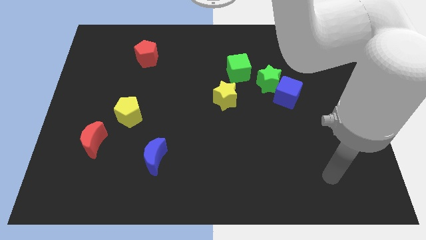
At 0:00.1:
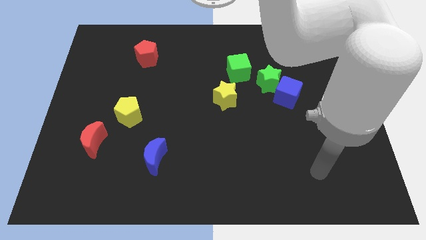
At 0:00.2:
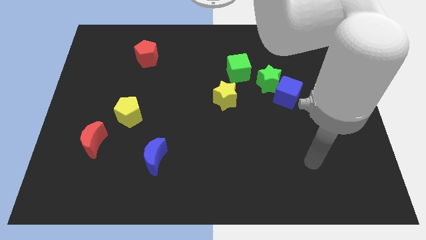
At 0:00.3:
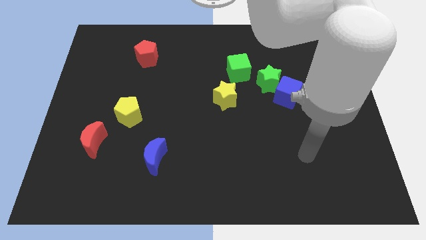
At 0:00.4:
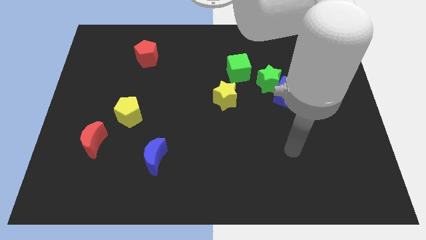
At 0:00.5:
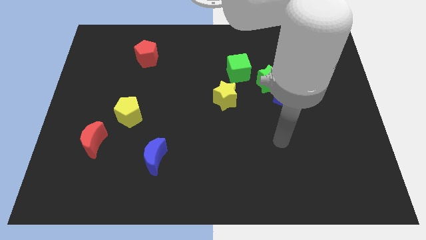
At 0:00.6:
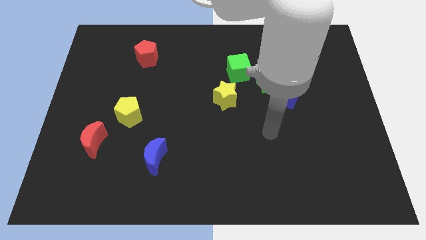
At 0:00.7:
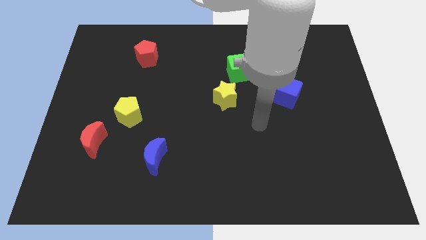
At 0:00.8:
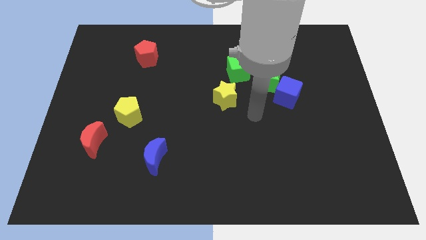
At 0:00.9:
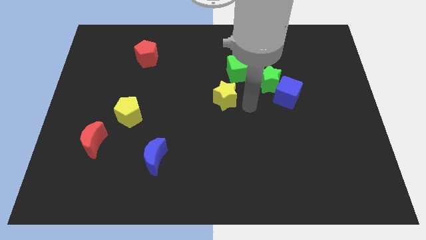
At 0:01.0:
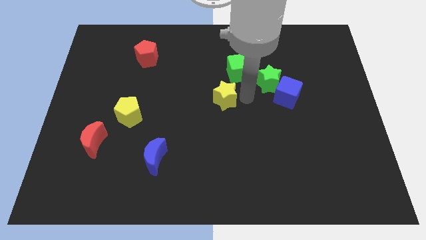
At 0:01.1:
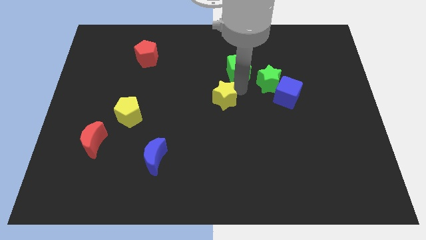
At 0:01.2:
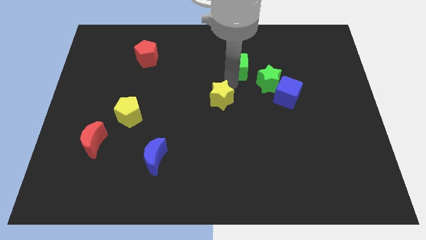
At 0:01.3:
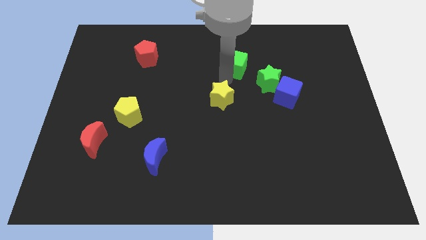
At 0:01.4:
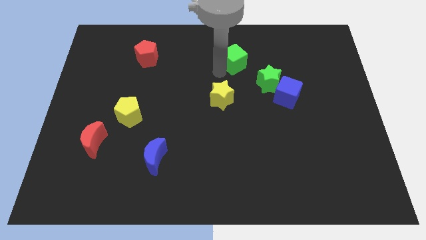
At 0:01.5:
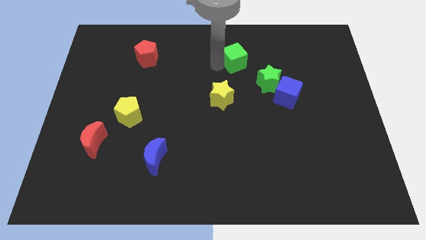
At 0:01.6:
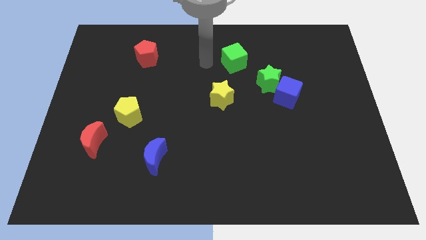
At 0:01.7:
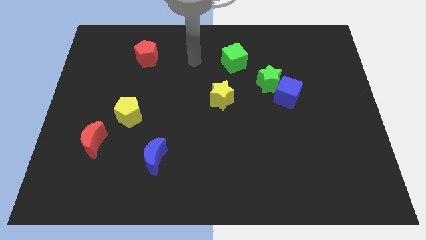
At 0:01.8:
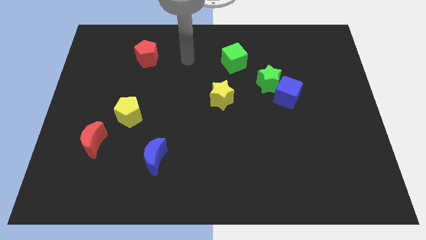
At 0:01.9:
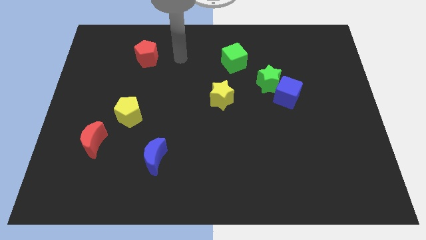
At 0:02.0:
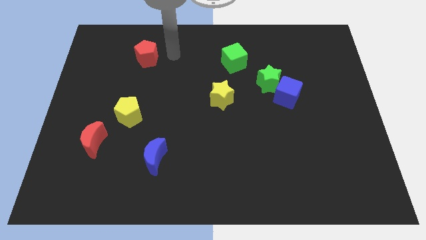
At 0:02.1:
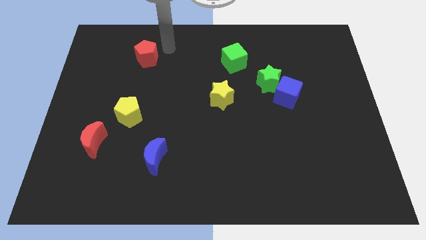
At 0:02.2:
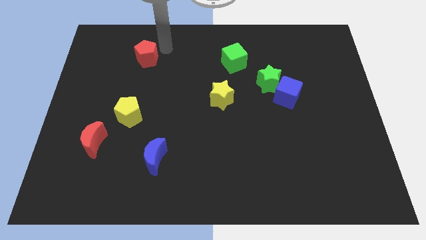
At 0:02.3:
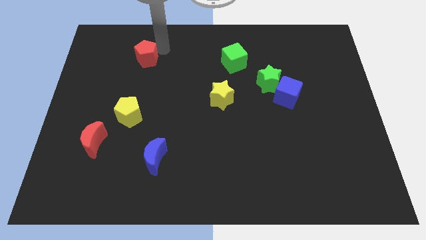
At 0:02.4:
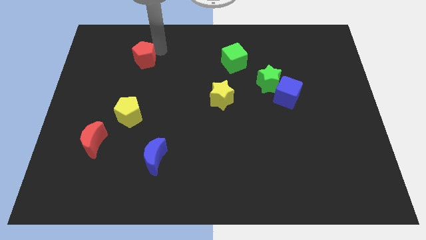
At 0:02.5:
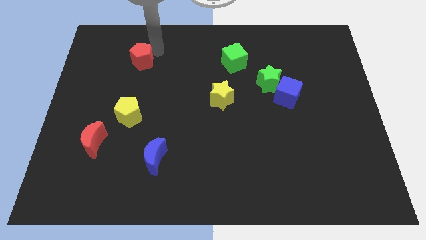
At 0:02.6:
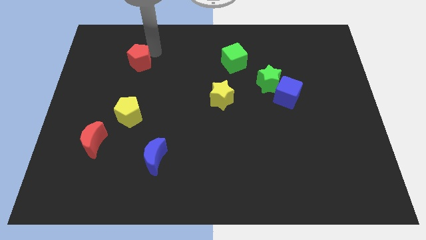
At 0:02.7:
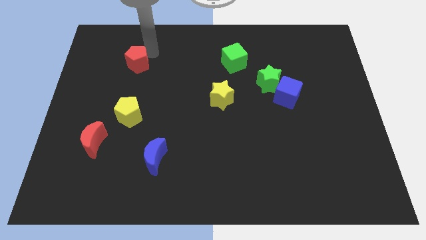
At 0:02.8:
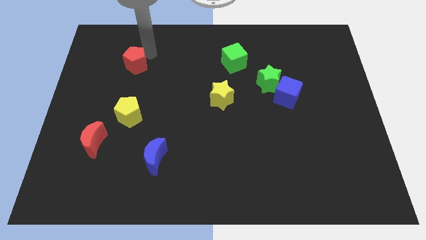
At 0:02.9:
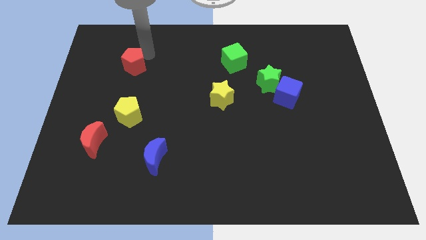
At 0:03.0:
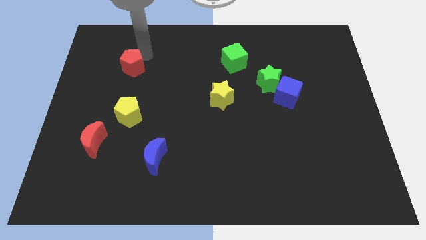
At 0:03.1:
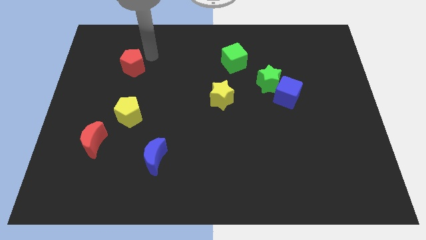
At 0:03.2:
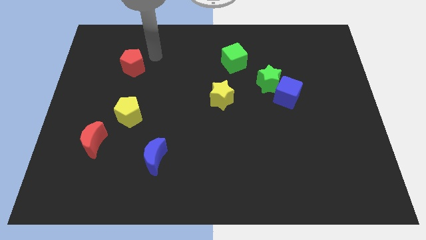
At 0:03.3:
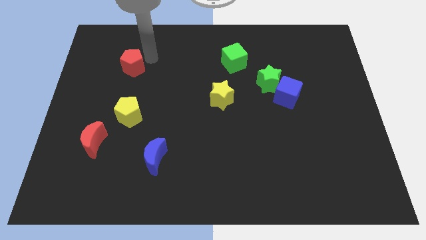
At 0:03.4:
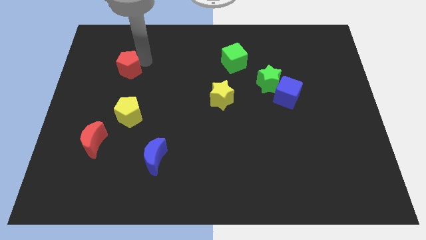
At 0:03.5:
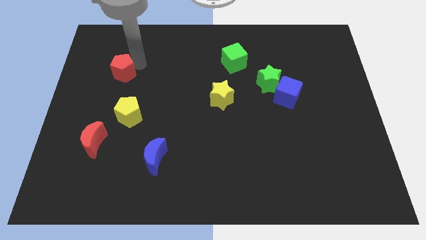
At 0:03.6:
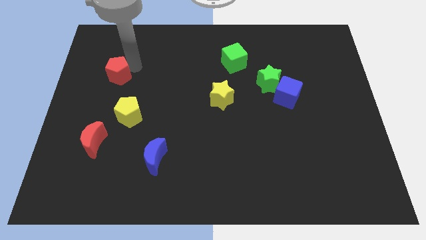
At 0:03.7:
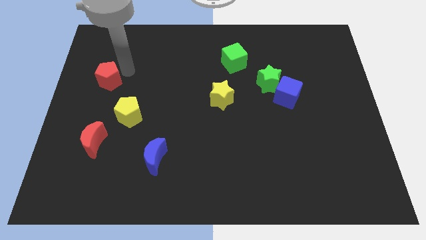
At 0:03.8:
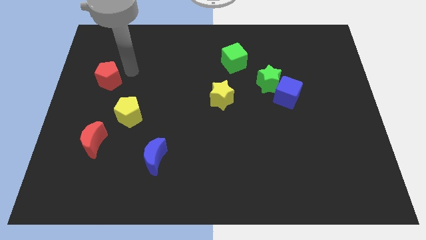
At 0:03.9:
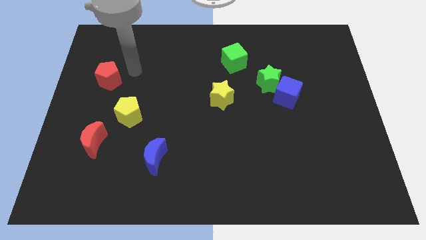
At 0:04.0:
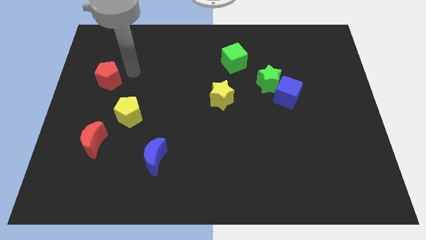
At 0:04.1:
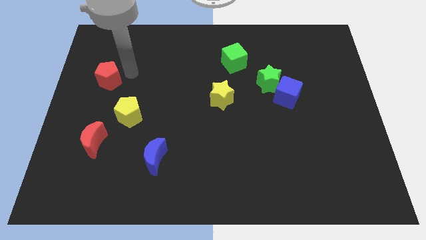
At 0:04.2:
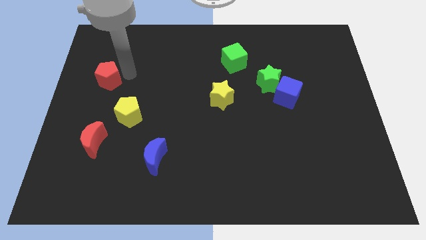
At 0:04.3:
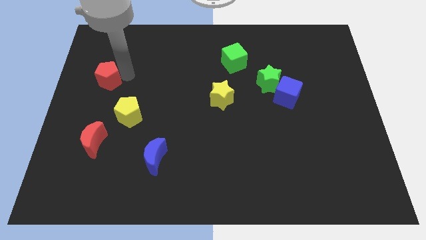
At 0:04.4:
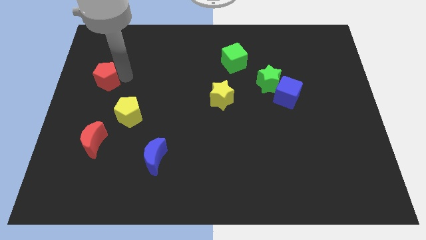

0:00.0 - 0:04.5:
put the red pentagon to the left side

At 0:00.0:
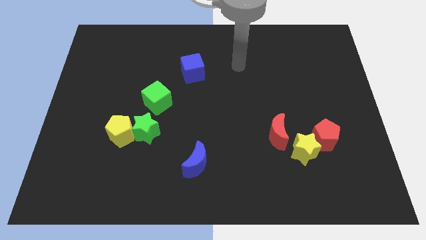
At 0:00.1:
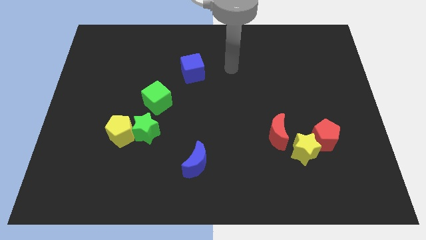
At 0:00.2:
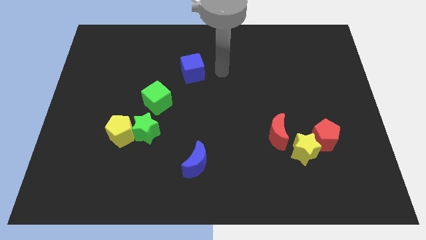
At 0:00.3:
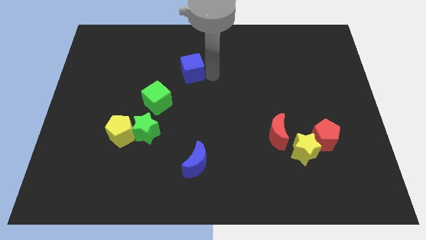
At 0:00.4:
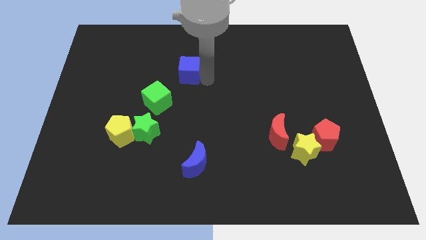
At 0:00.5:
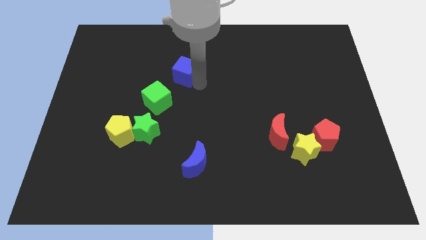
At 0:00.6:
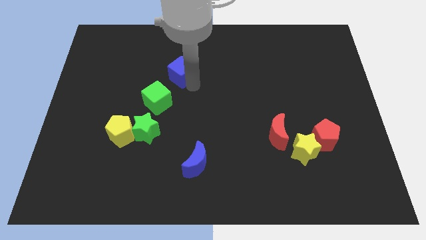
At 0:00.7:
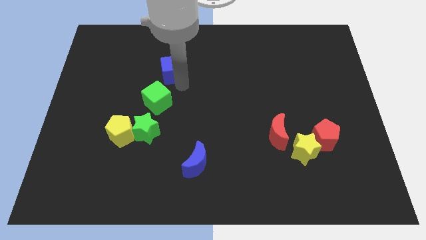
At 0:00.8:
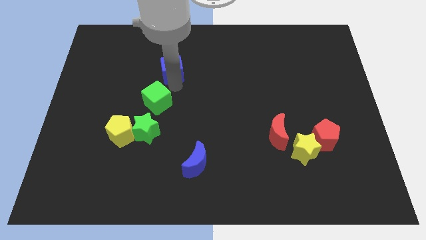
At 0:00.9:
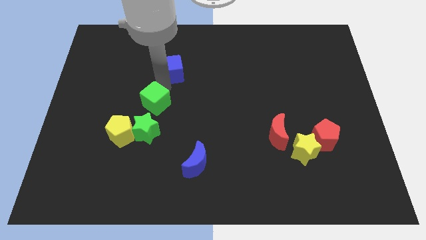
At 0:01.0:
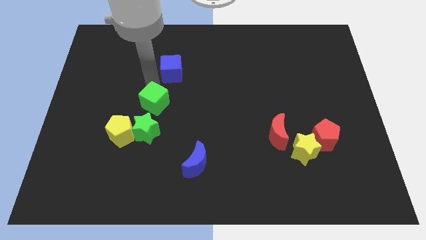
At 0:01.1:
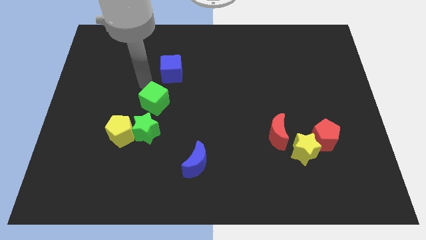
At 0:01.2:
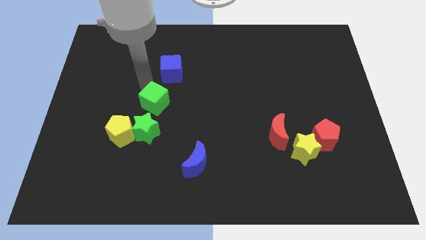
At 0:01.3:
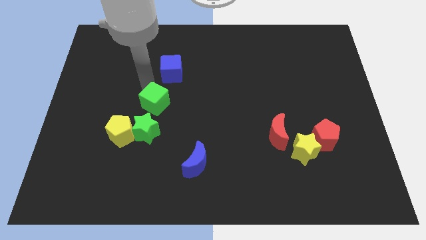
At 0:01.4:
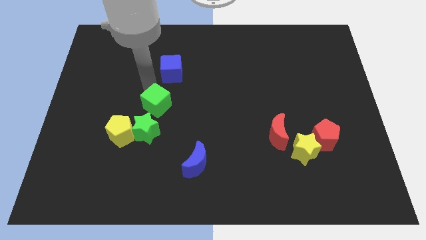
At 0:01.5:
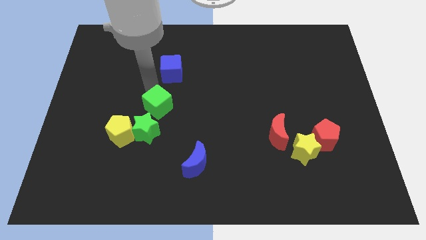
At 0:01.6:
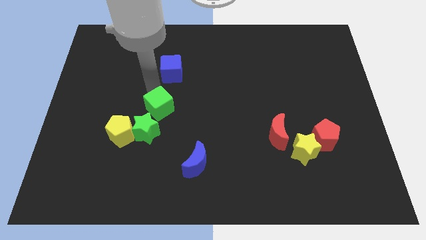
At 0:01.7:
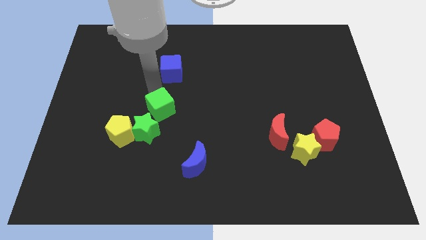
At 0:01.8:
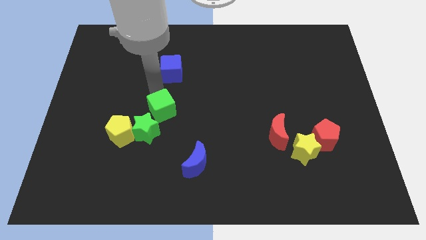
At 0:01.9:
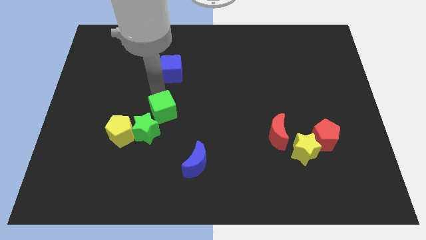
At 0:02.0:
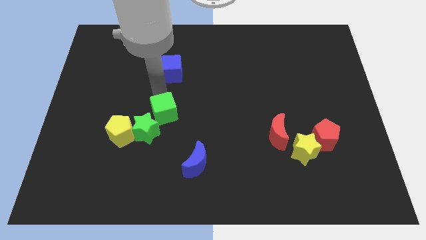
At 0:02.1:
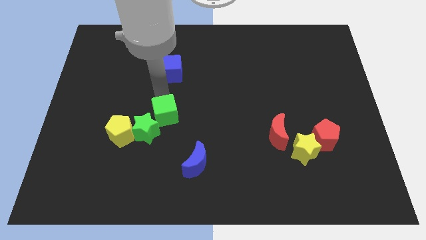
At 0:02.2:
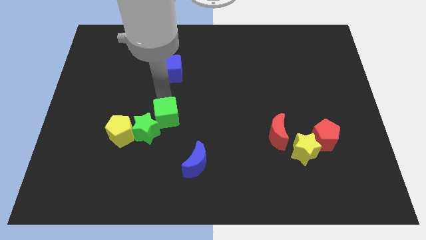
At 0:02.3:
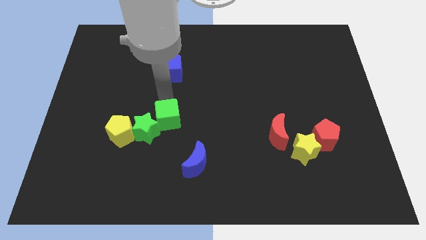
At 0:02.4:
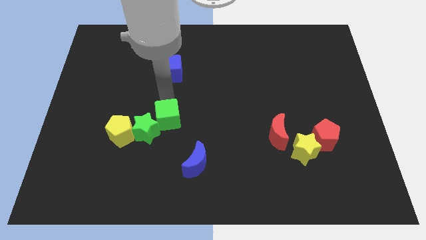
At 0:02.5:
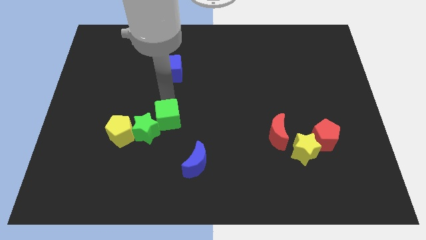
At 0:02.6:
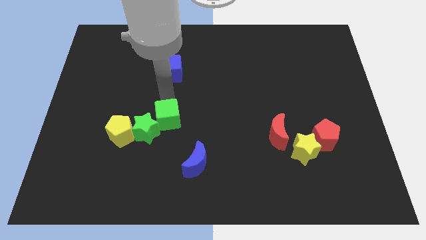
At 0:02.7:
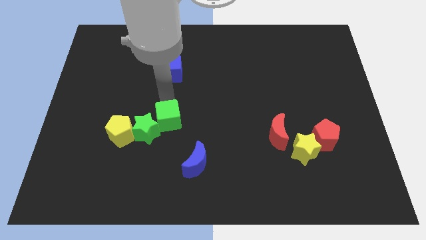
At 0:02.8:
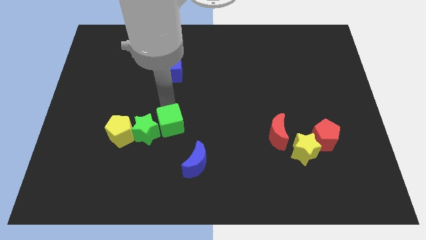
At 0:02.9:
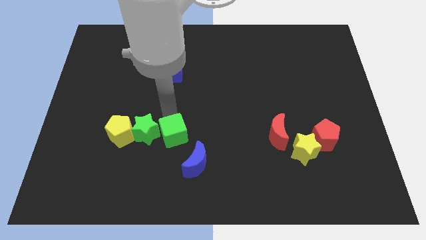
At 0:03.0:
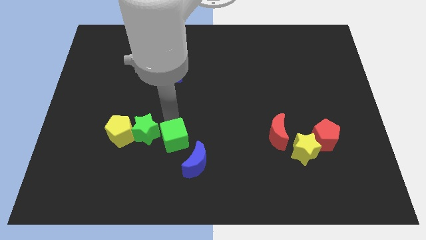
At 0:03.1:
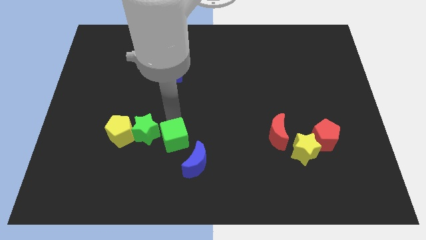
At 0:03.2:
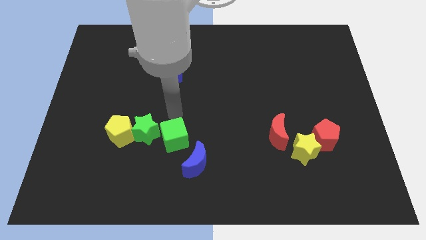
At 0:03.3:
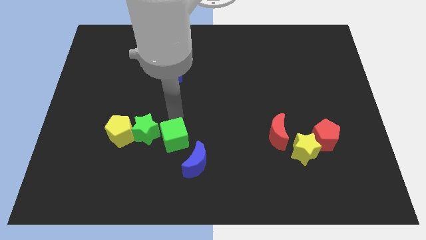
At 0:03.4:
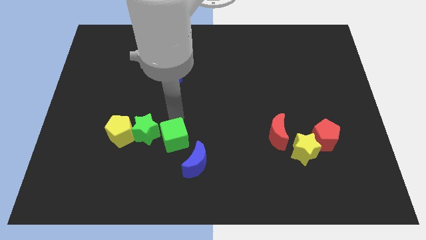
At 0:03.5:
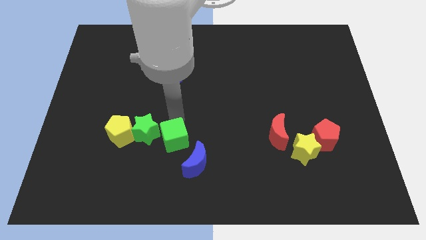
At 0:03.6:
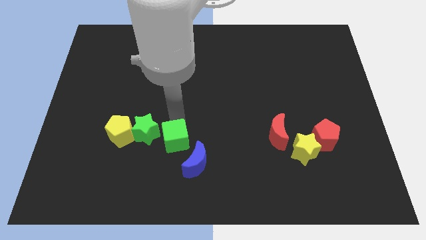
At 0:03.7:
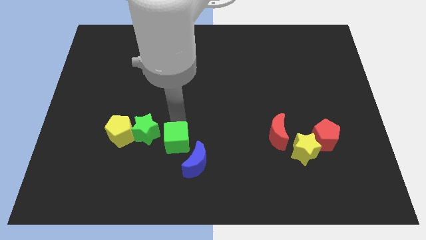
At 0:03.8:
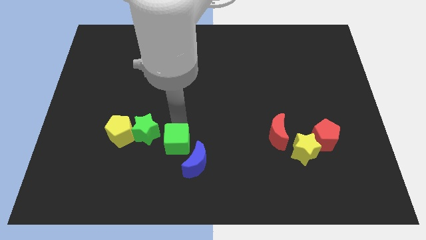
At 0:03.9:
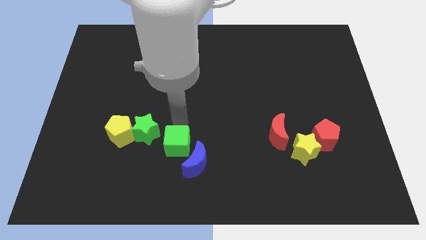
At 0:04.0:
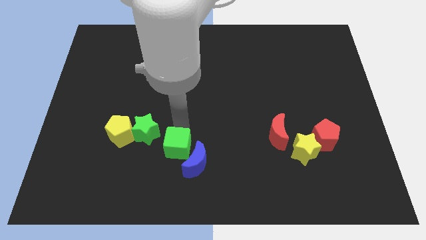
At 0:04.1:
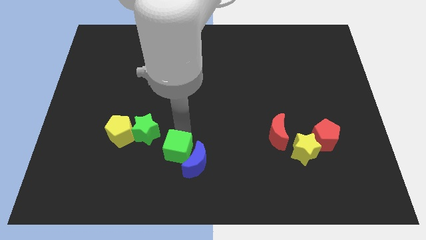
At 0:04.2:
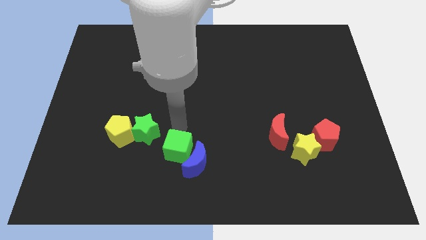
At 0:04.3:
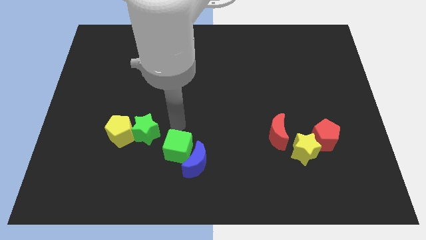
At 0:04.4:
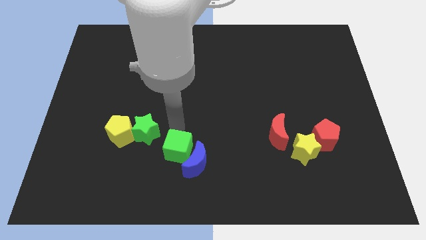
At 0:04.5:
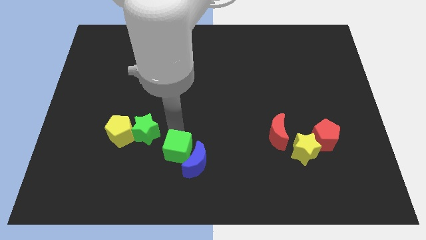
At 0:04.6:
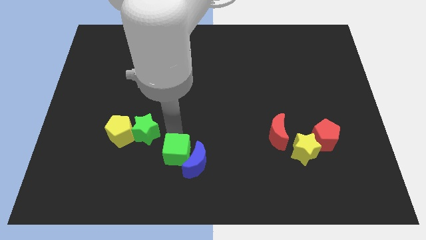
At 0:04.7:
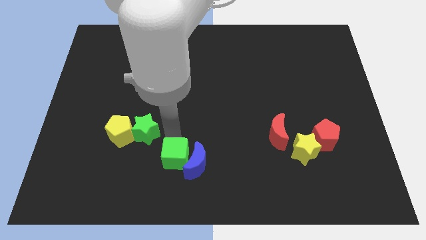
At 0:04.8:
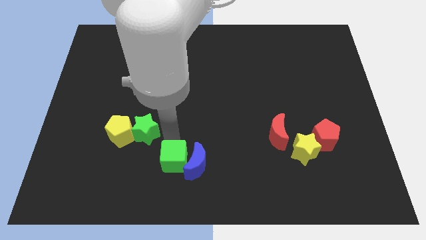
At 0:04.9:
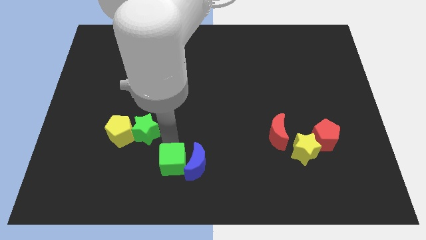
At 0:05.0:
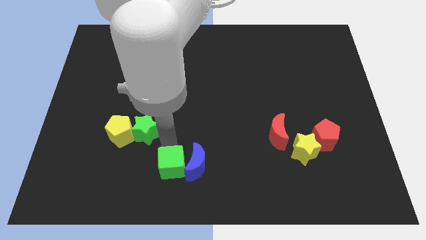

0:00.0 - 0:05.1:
push the green cube to the bottom side
